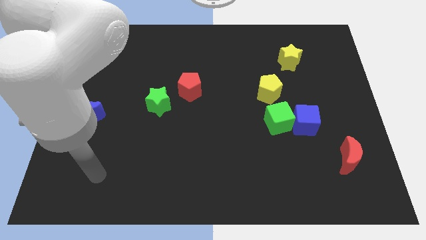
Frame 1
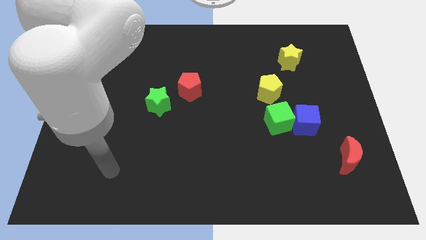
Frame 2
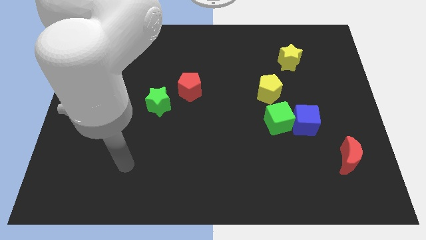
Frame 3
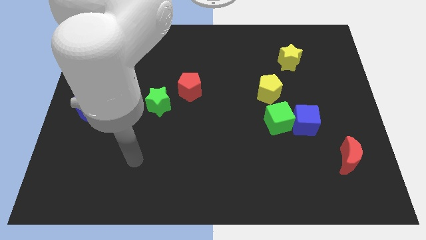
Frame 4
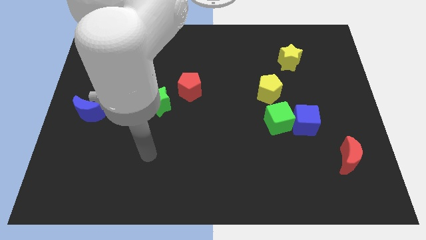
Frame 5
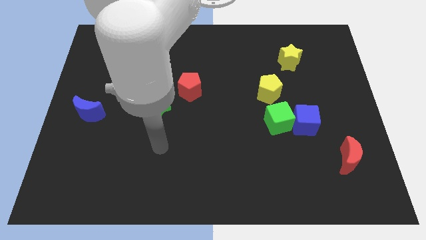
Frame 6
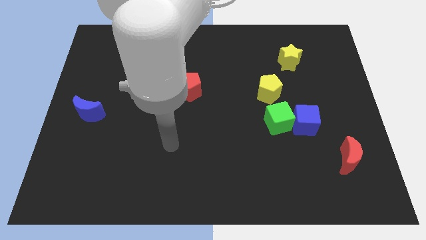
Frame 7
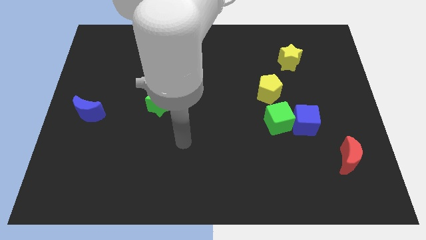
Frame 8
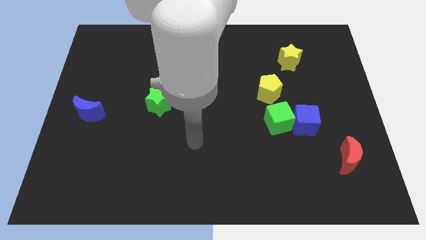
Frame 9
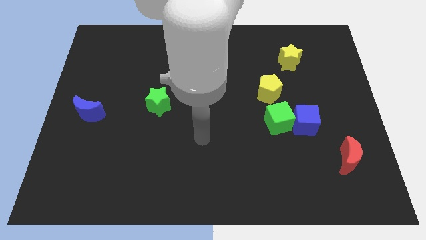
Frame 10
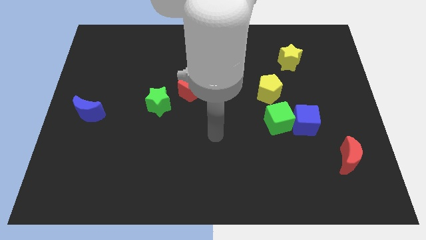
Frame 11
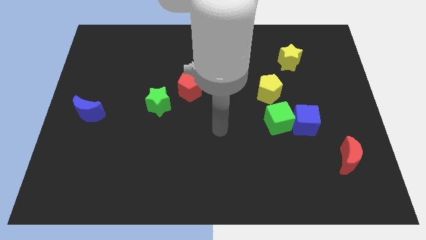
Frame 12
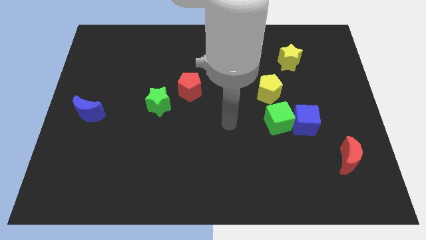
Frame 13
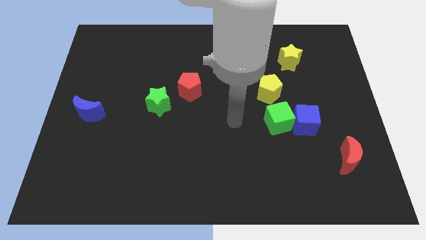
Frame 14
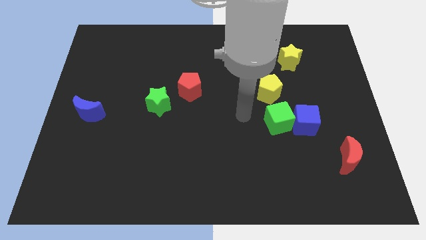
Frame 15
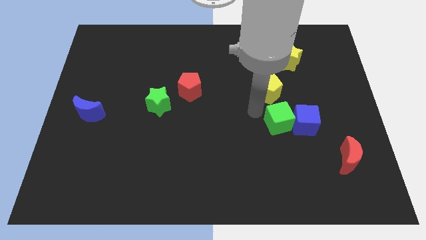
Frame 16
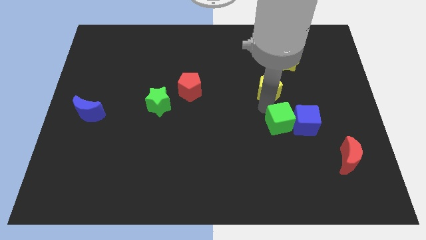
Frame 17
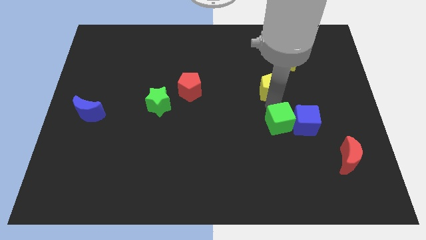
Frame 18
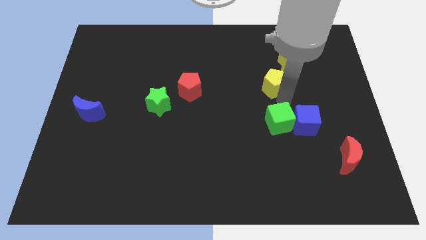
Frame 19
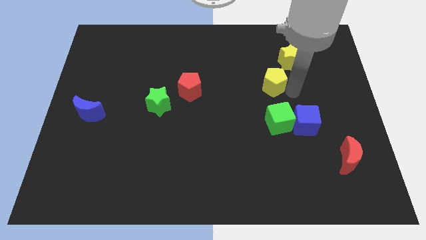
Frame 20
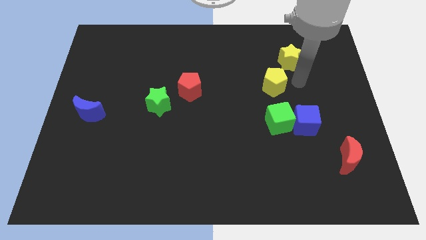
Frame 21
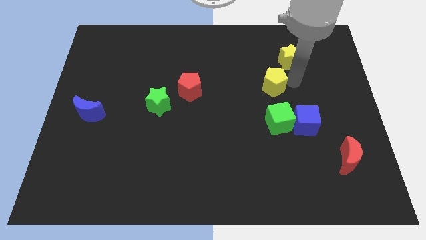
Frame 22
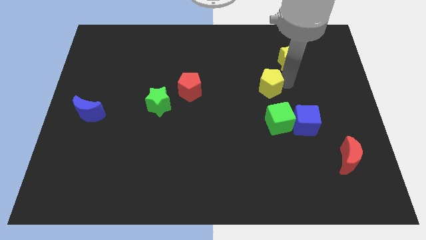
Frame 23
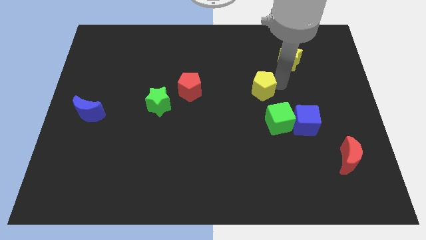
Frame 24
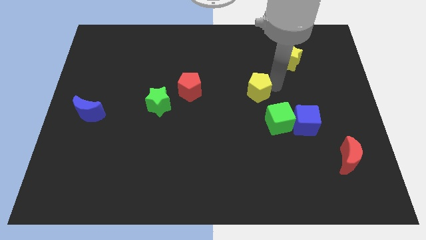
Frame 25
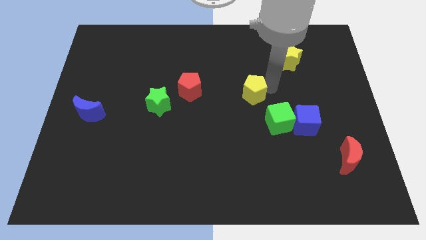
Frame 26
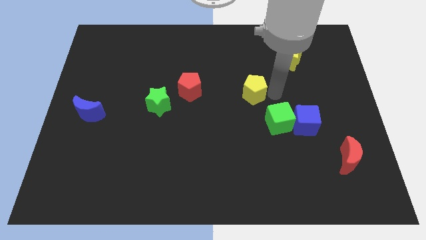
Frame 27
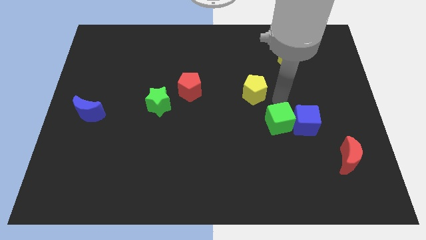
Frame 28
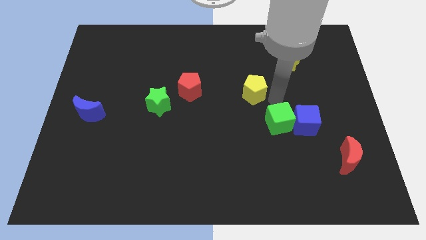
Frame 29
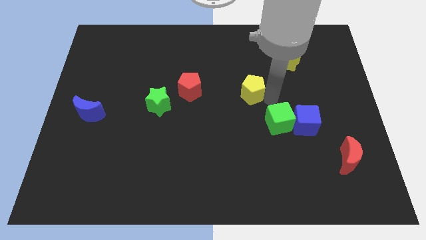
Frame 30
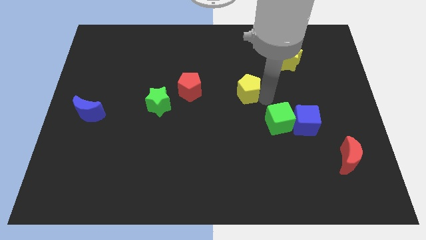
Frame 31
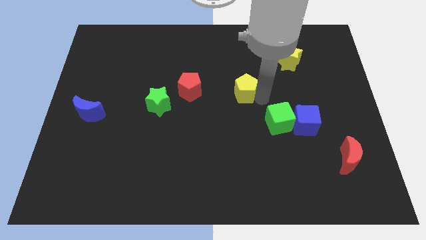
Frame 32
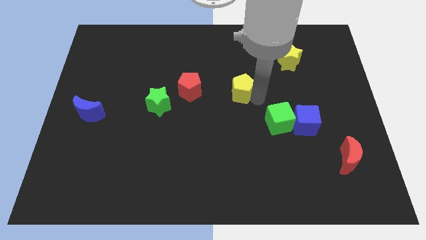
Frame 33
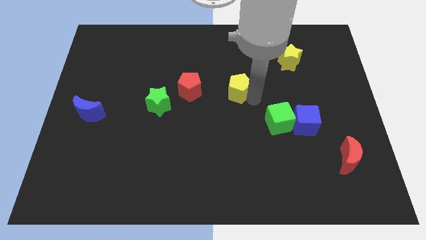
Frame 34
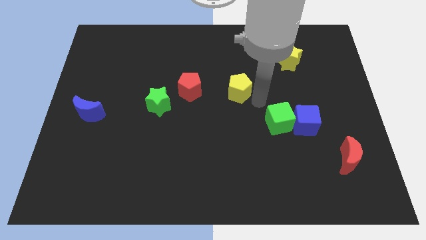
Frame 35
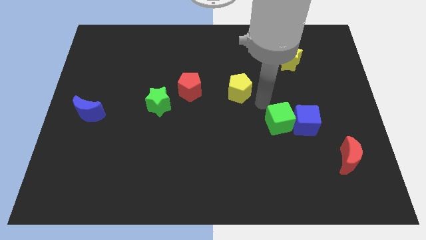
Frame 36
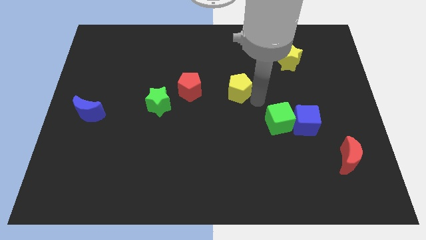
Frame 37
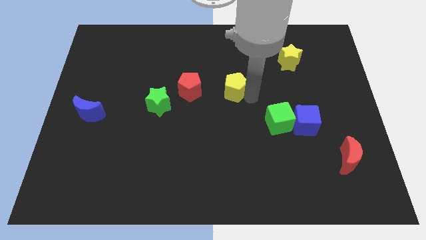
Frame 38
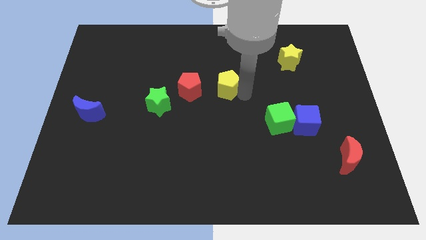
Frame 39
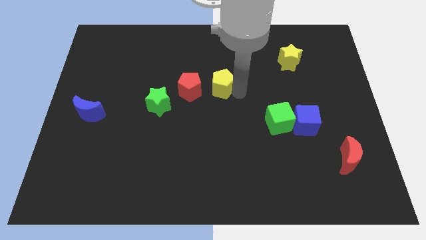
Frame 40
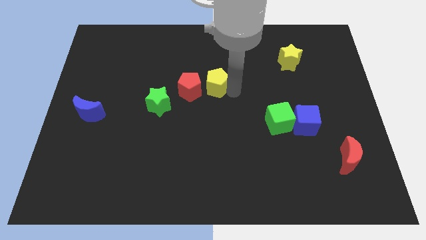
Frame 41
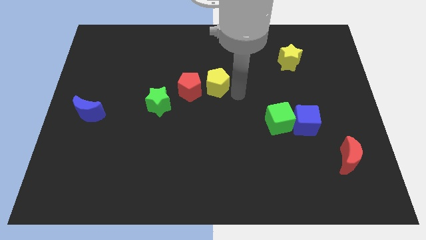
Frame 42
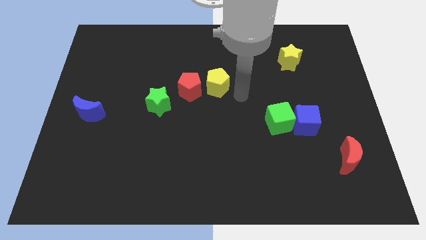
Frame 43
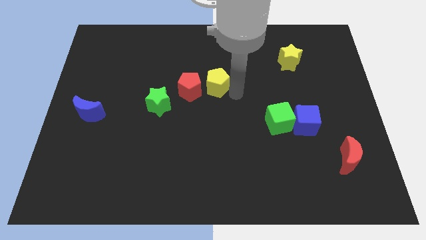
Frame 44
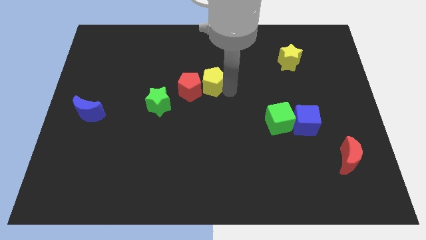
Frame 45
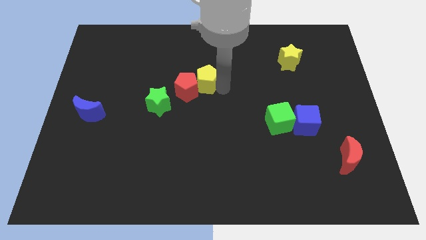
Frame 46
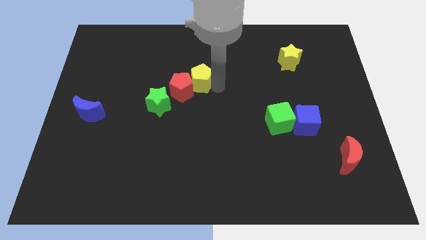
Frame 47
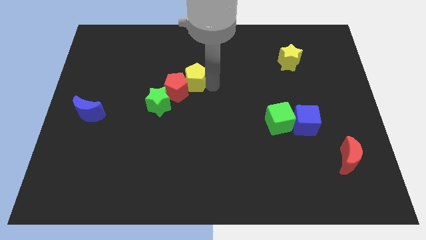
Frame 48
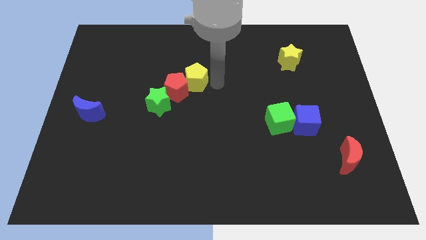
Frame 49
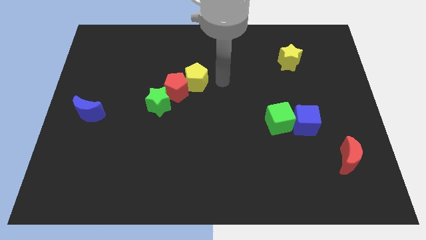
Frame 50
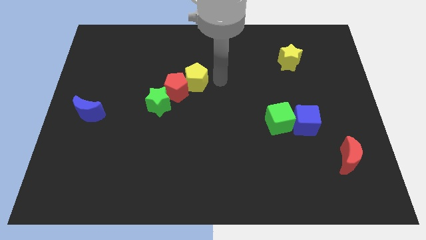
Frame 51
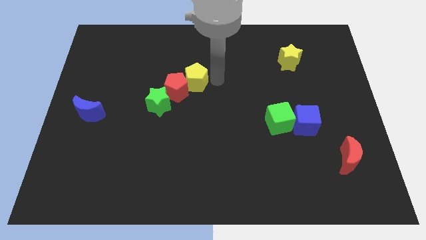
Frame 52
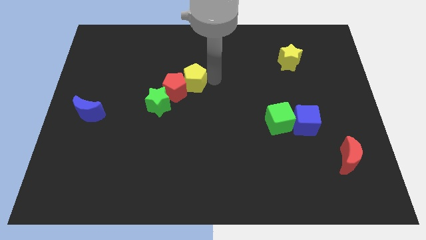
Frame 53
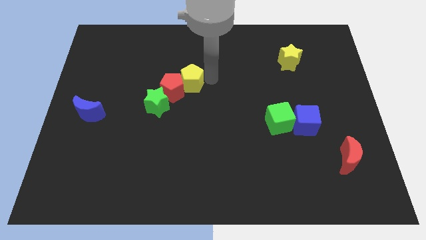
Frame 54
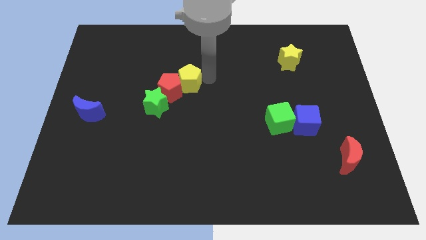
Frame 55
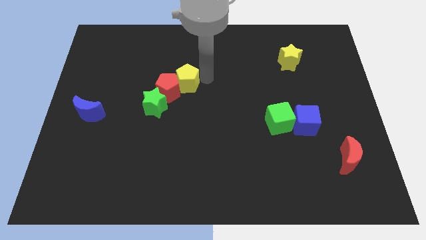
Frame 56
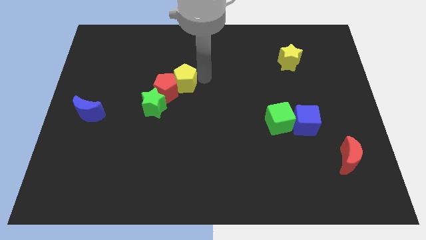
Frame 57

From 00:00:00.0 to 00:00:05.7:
slide the yellow pentagon to the left

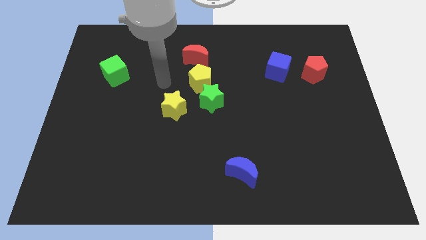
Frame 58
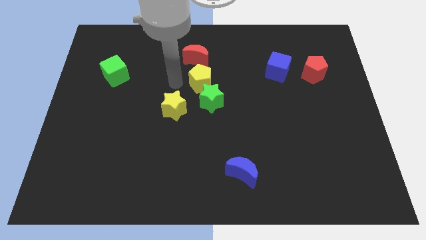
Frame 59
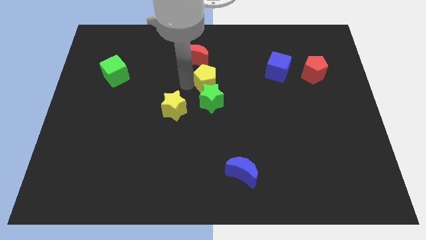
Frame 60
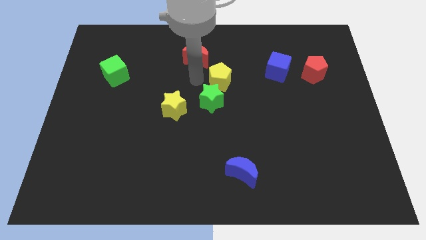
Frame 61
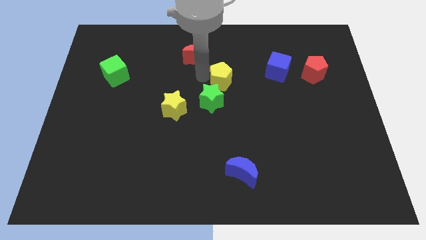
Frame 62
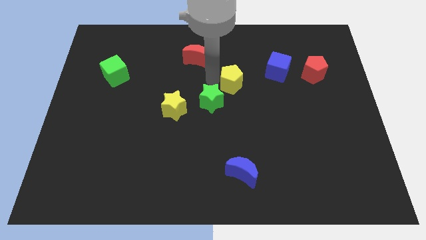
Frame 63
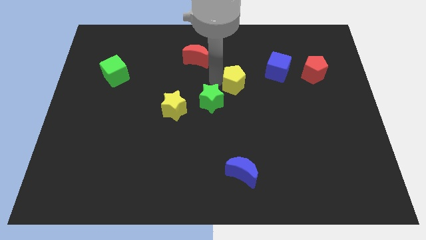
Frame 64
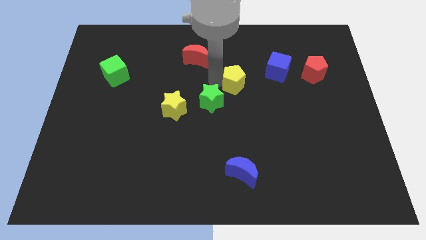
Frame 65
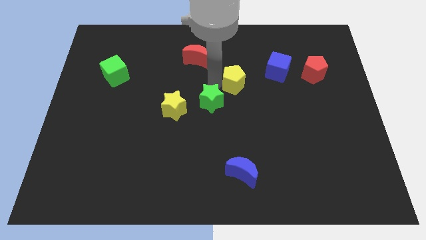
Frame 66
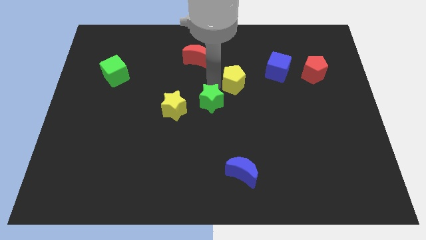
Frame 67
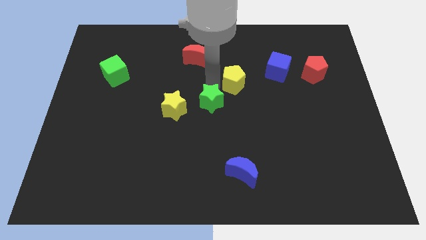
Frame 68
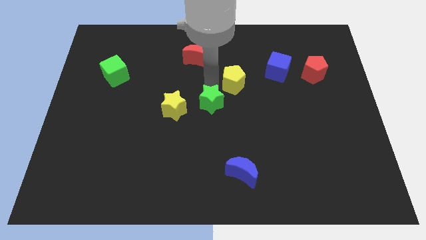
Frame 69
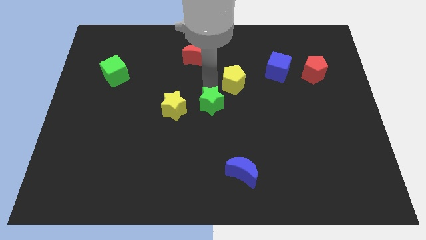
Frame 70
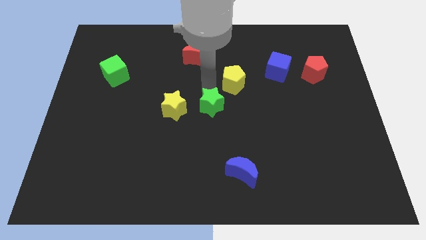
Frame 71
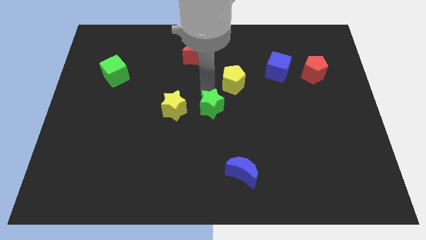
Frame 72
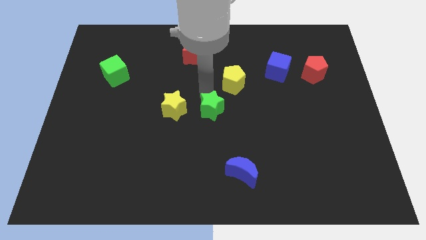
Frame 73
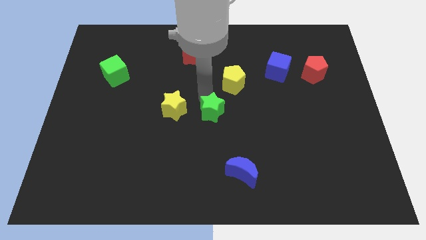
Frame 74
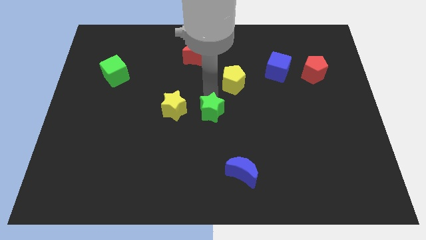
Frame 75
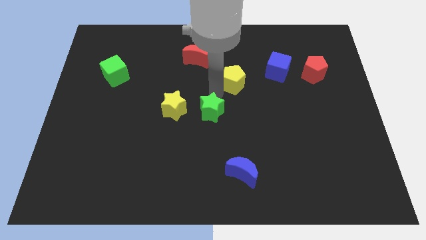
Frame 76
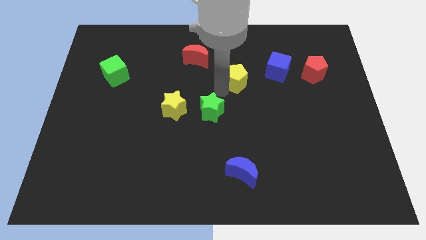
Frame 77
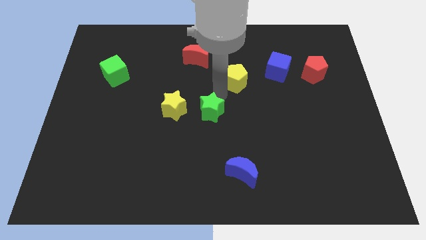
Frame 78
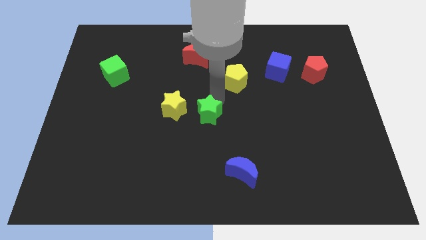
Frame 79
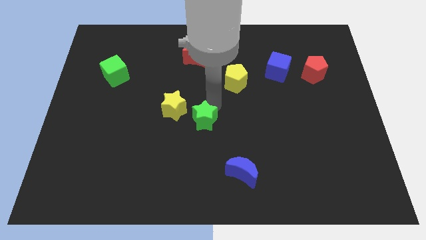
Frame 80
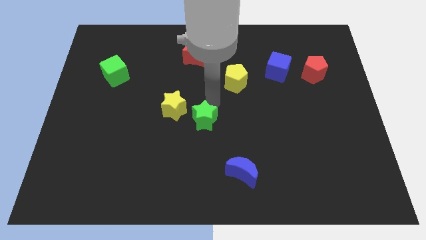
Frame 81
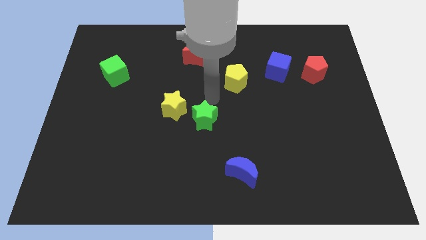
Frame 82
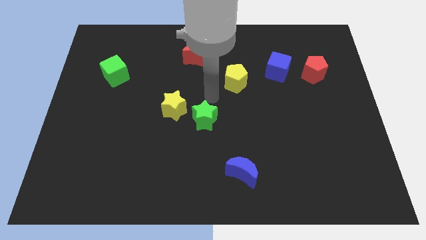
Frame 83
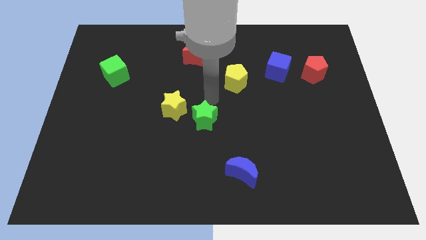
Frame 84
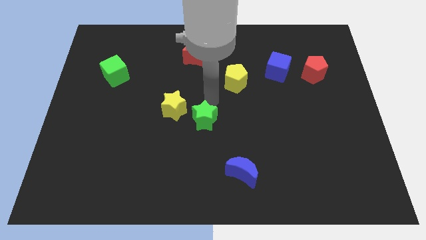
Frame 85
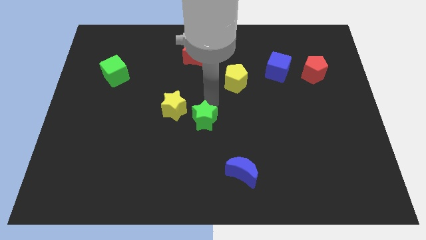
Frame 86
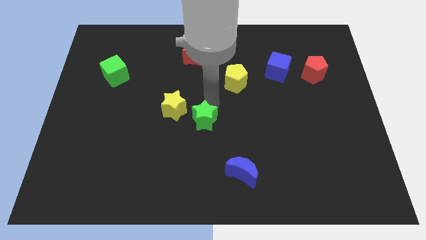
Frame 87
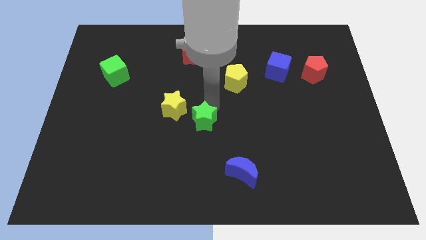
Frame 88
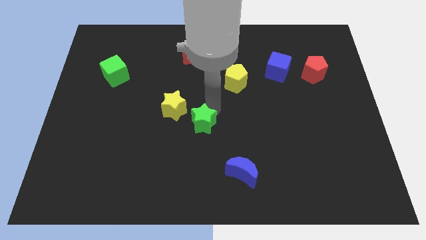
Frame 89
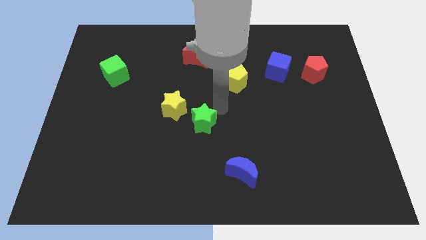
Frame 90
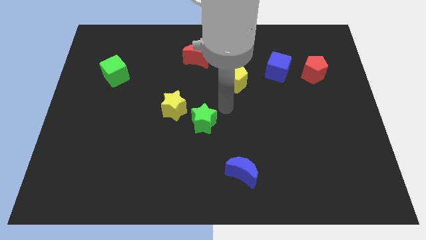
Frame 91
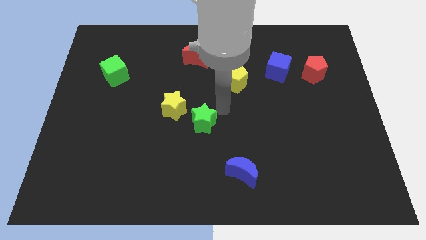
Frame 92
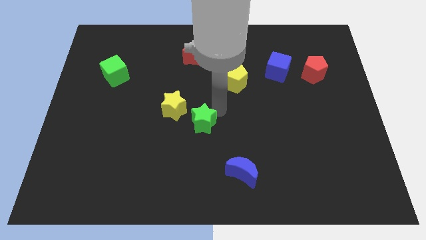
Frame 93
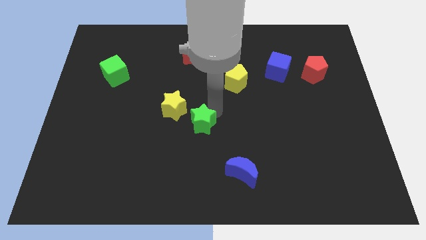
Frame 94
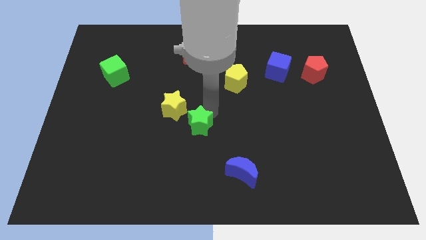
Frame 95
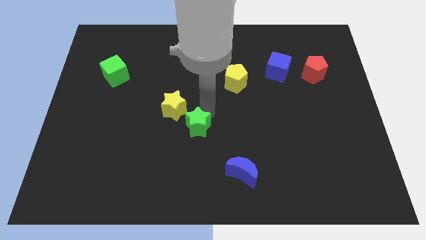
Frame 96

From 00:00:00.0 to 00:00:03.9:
push the green star slightly down and then left
